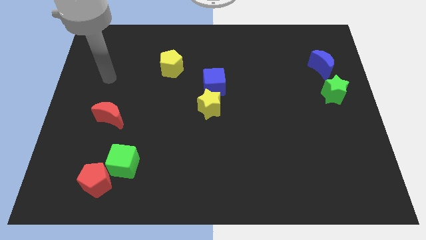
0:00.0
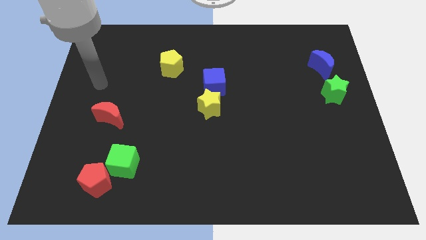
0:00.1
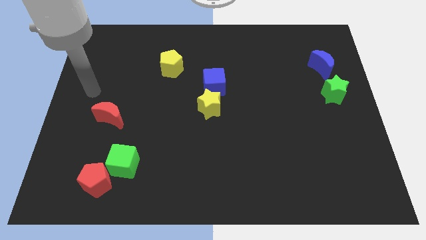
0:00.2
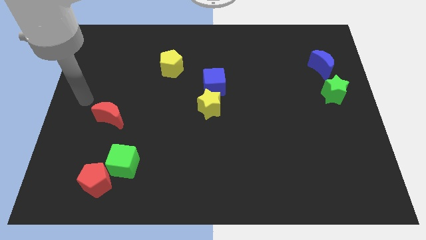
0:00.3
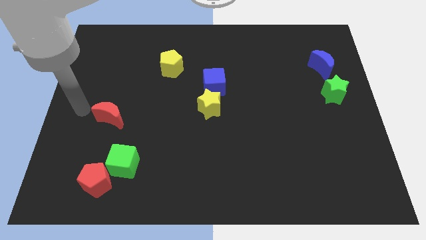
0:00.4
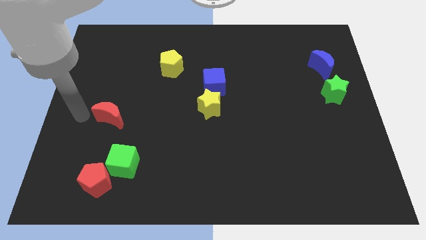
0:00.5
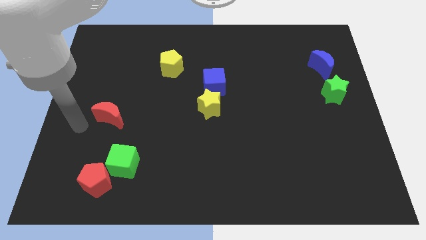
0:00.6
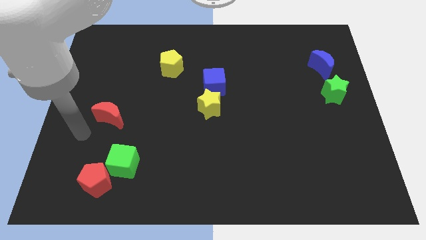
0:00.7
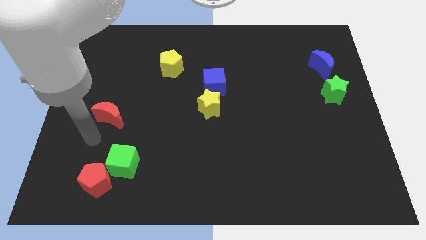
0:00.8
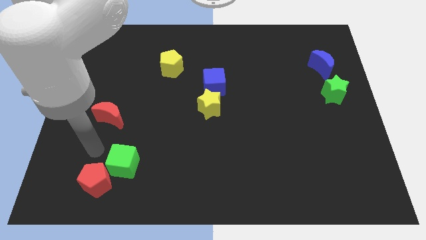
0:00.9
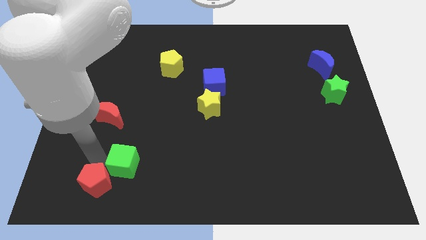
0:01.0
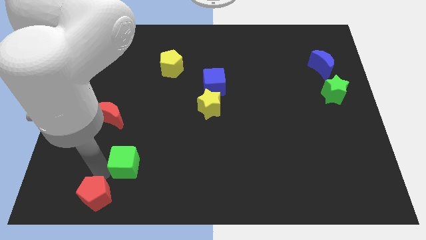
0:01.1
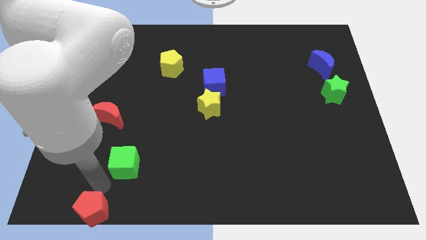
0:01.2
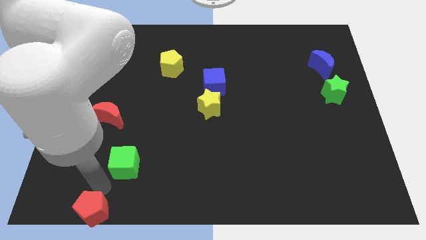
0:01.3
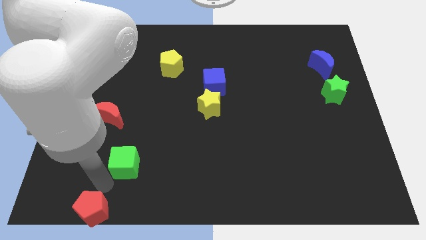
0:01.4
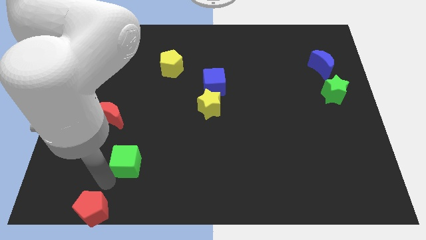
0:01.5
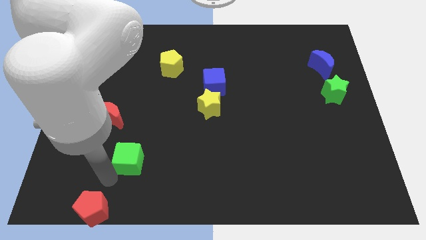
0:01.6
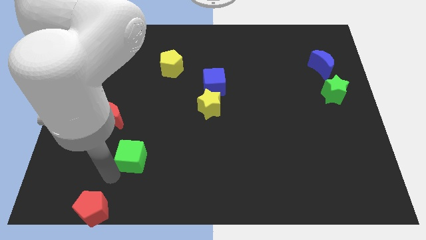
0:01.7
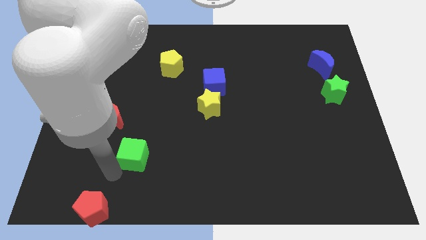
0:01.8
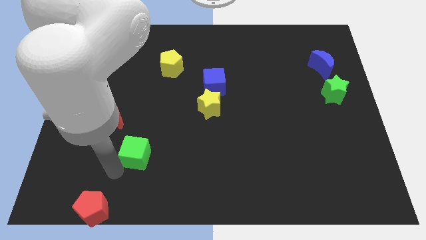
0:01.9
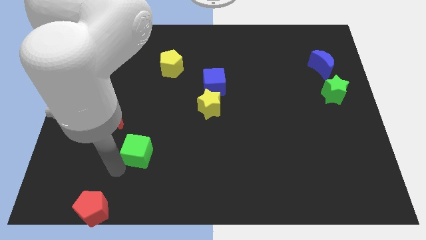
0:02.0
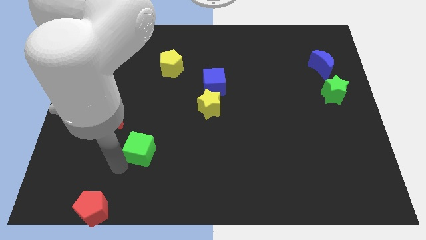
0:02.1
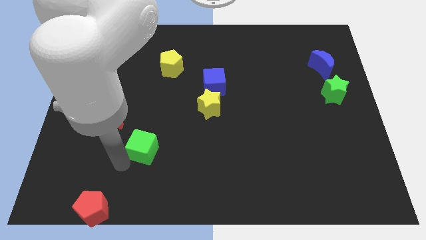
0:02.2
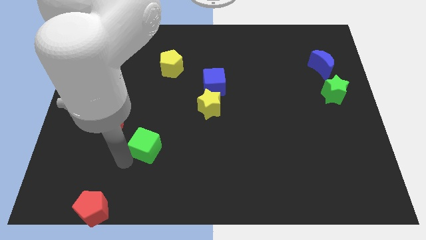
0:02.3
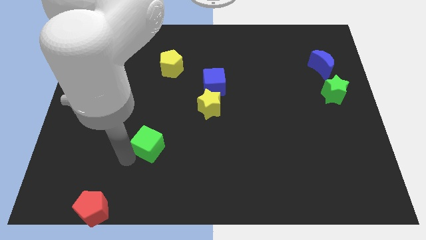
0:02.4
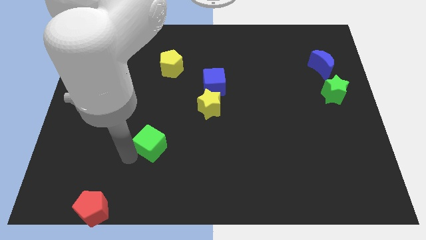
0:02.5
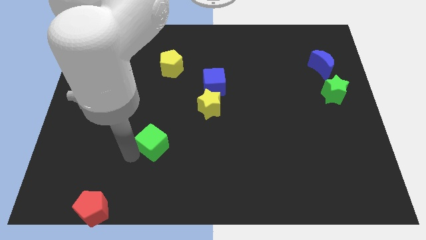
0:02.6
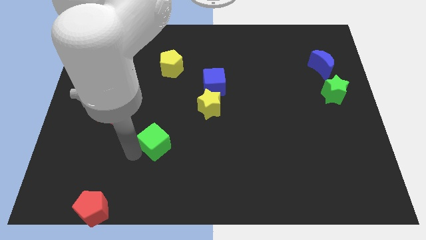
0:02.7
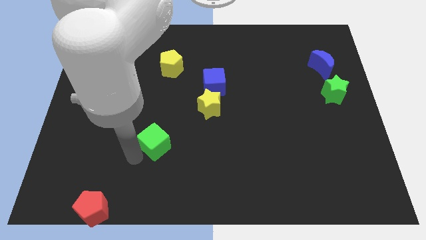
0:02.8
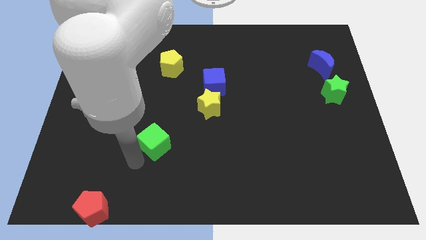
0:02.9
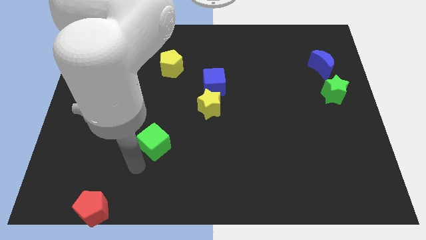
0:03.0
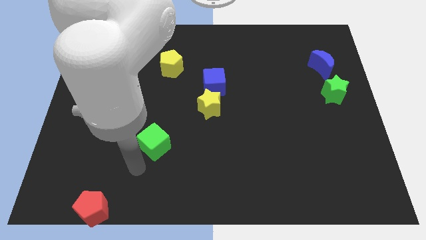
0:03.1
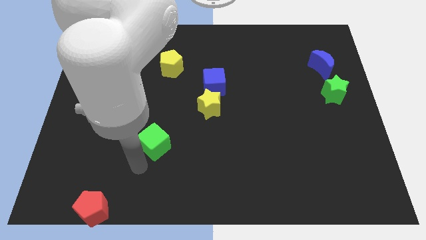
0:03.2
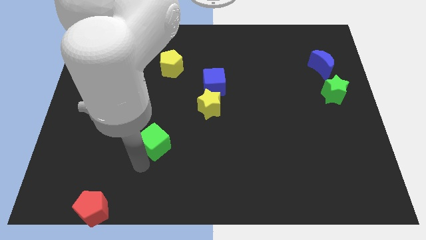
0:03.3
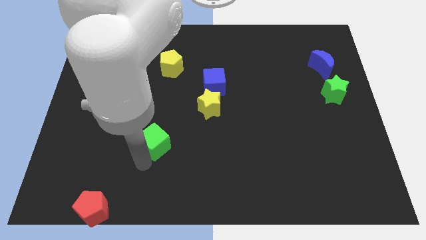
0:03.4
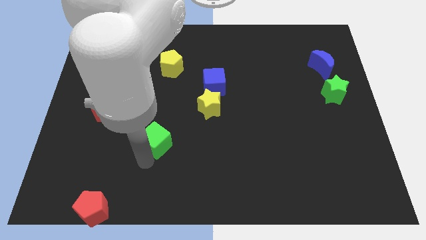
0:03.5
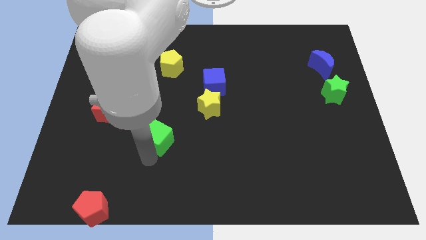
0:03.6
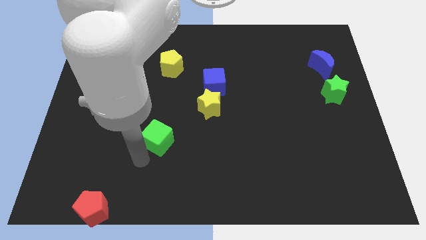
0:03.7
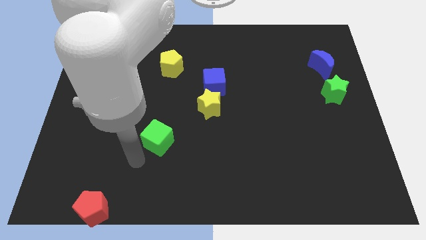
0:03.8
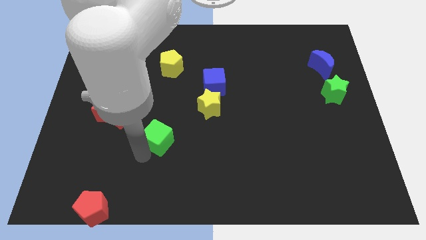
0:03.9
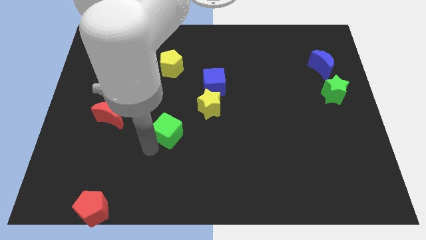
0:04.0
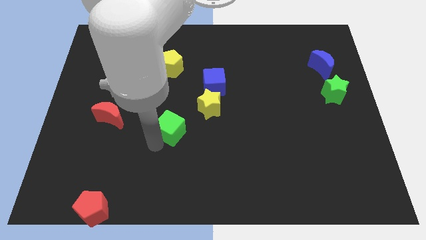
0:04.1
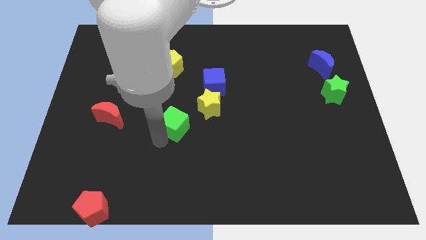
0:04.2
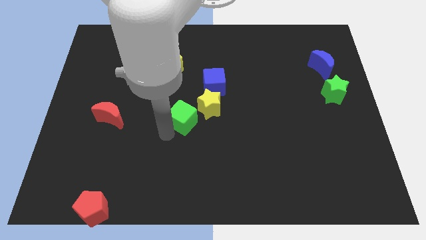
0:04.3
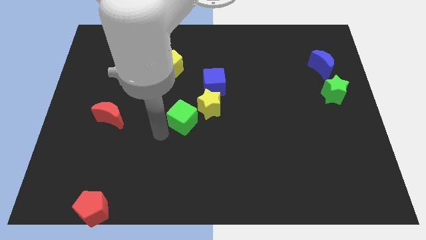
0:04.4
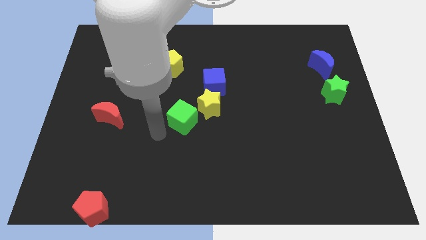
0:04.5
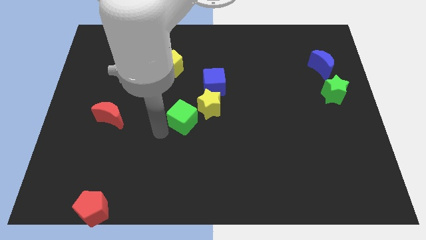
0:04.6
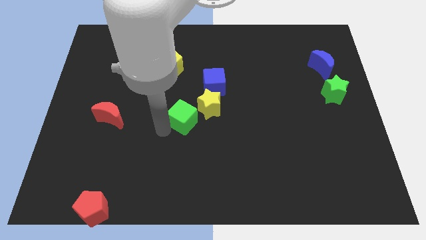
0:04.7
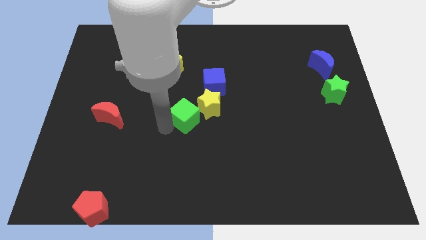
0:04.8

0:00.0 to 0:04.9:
move the green cube towards the yellow star

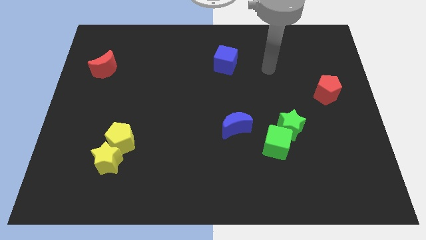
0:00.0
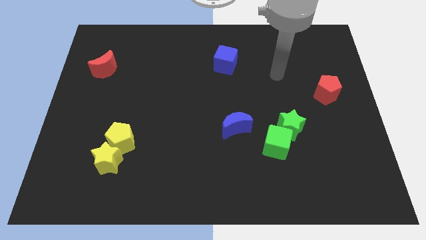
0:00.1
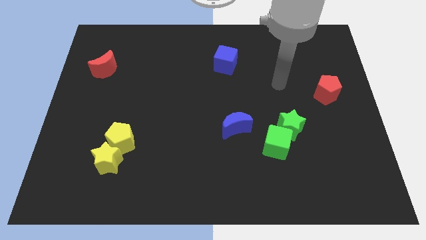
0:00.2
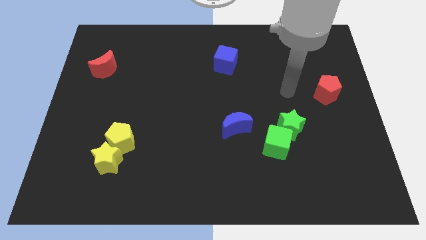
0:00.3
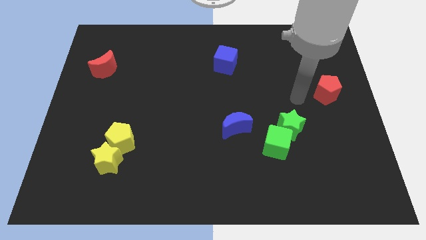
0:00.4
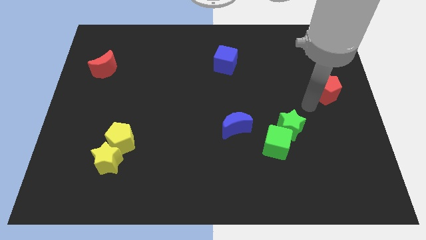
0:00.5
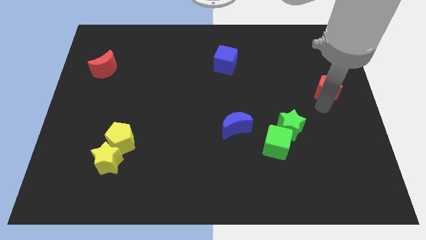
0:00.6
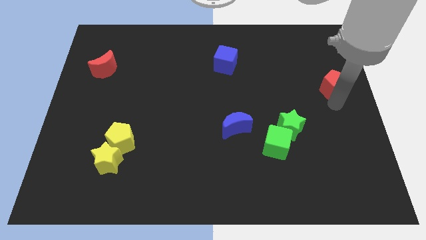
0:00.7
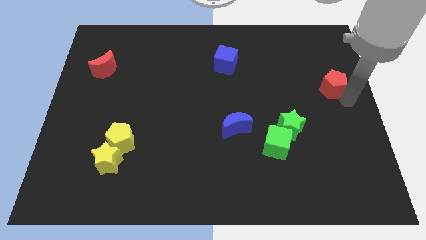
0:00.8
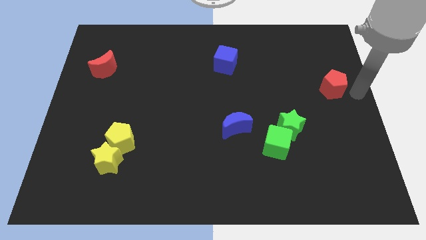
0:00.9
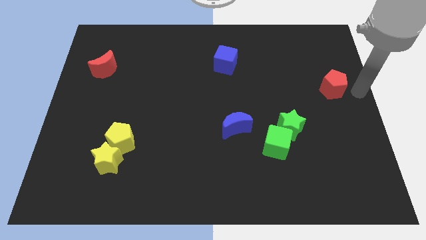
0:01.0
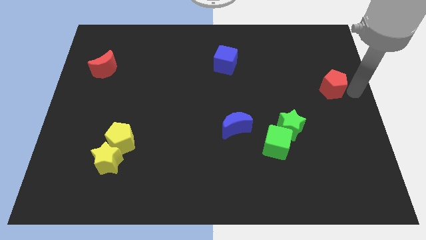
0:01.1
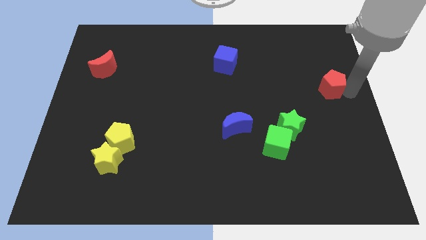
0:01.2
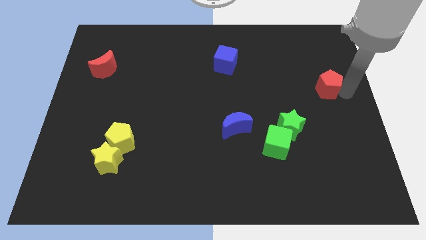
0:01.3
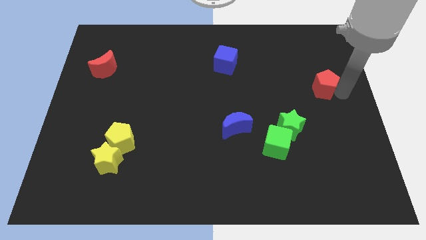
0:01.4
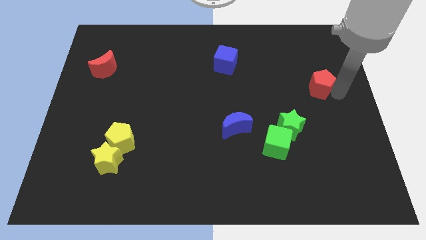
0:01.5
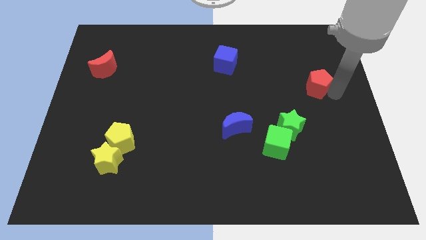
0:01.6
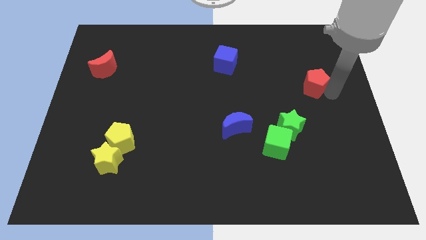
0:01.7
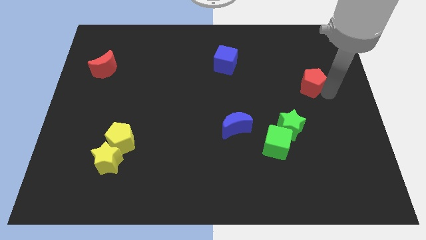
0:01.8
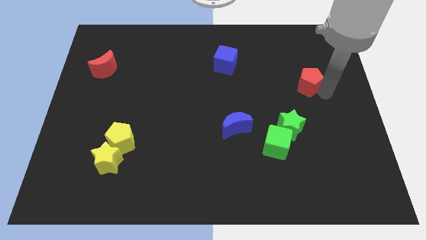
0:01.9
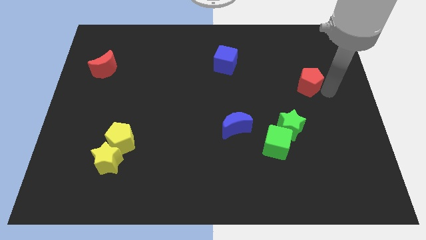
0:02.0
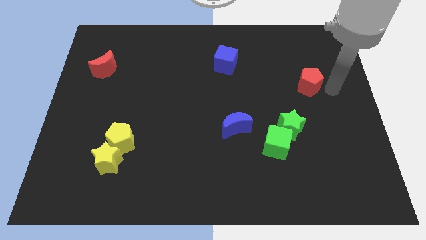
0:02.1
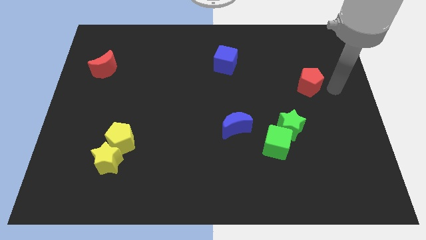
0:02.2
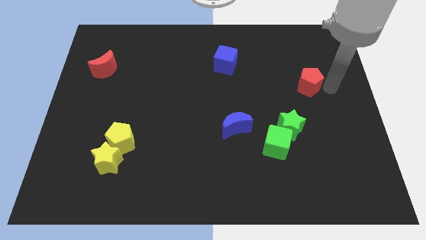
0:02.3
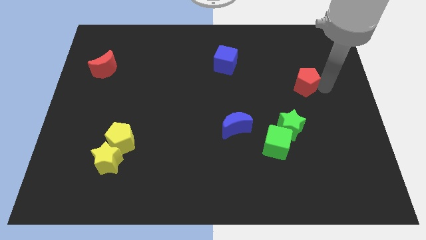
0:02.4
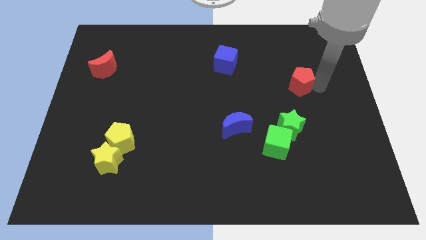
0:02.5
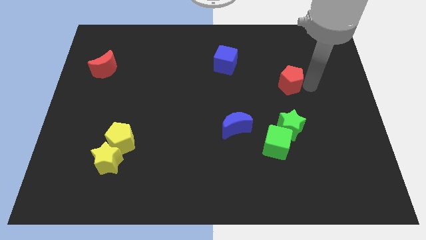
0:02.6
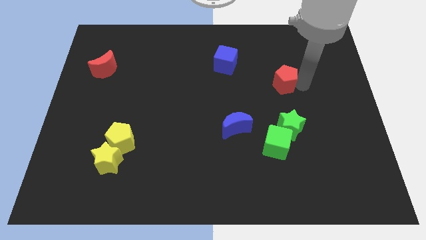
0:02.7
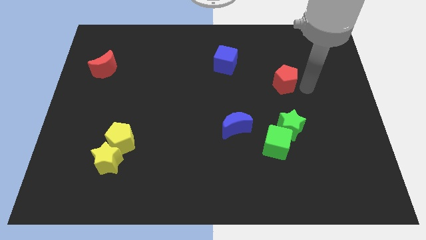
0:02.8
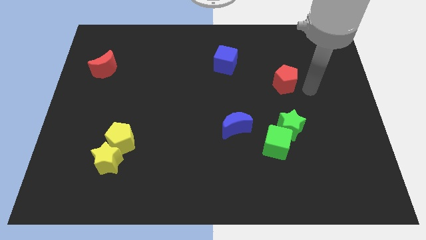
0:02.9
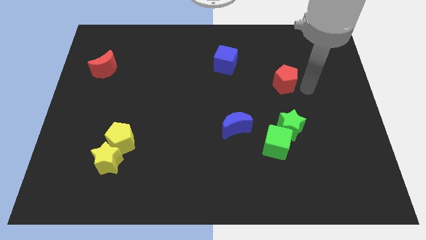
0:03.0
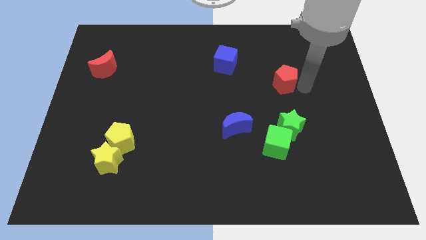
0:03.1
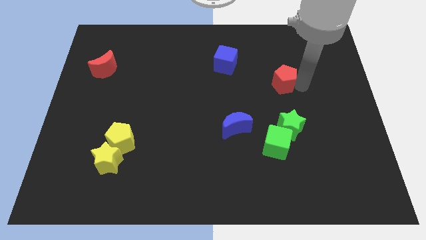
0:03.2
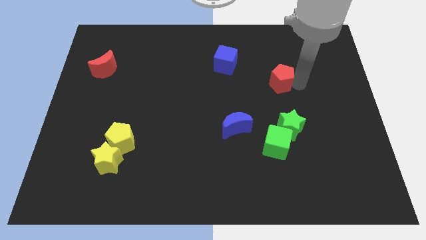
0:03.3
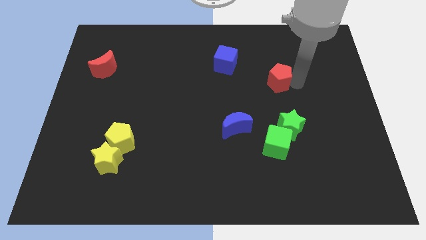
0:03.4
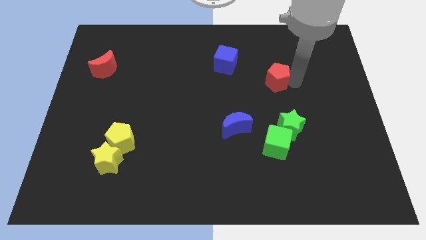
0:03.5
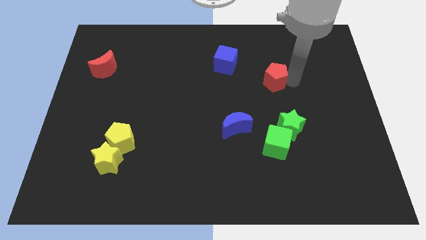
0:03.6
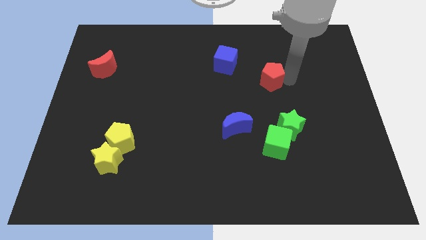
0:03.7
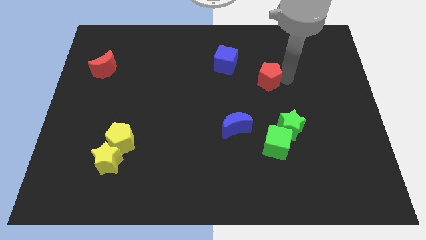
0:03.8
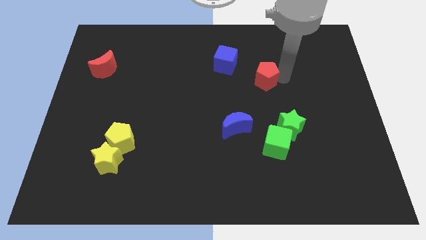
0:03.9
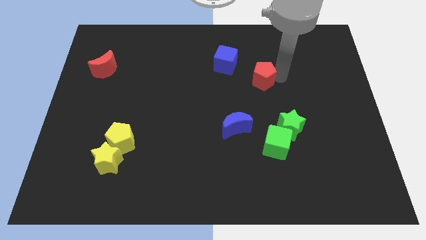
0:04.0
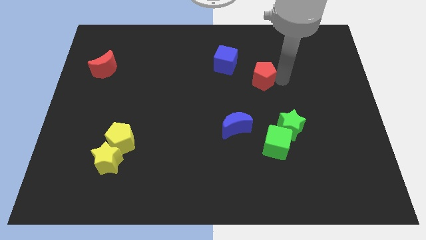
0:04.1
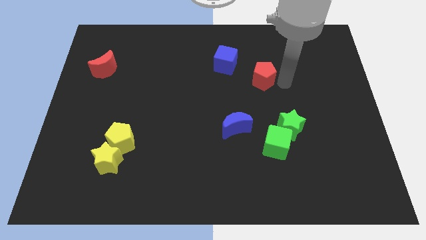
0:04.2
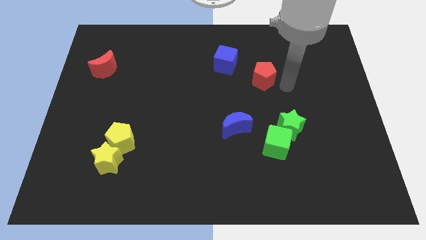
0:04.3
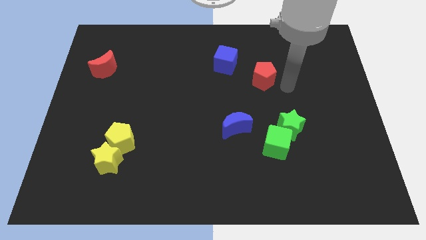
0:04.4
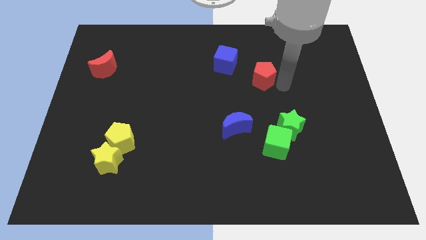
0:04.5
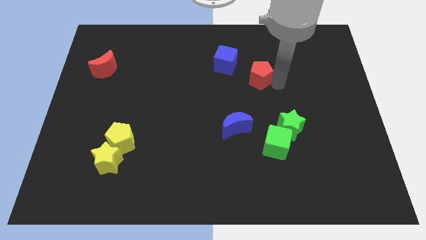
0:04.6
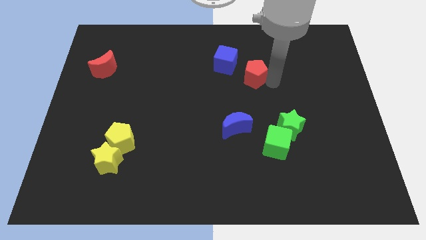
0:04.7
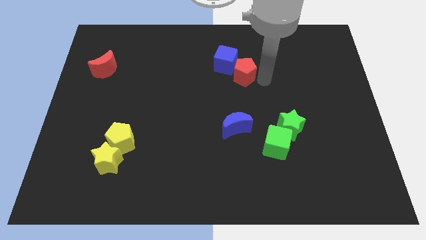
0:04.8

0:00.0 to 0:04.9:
put the red pentagon close to the blue cube
